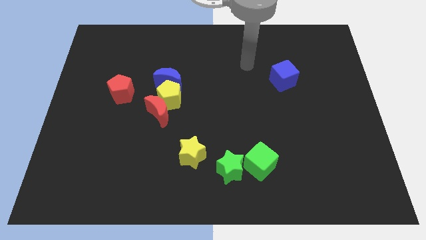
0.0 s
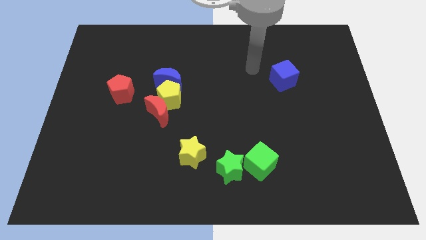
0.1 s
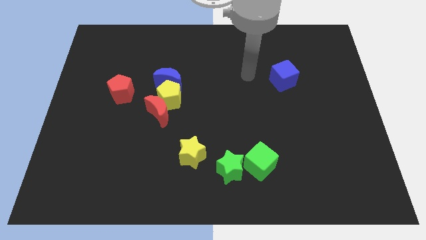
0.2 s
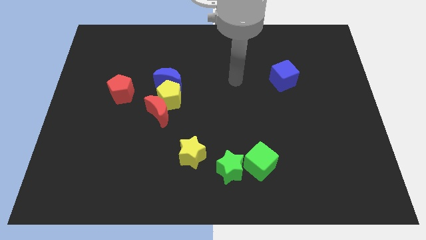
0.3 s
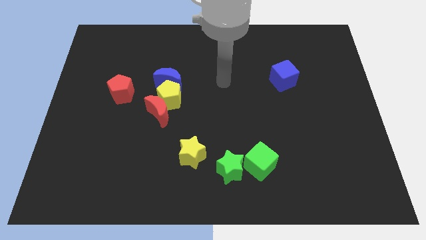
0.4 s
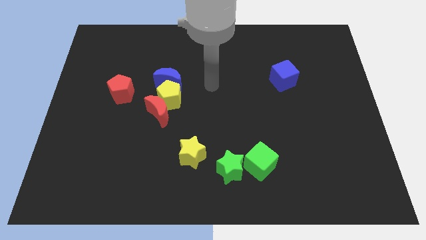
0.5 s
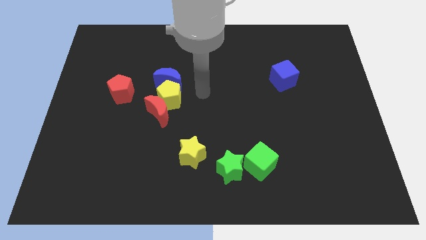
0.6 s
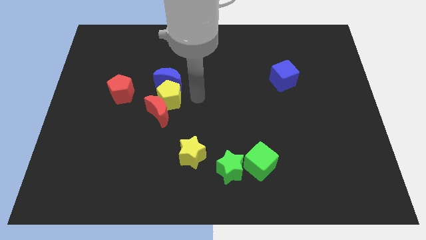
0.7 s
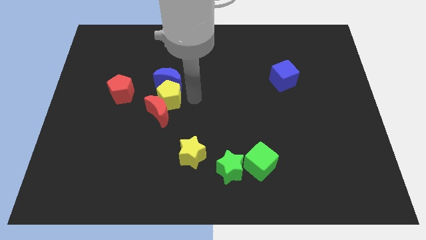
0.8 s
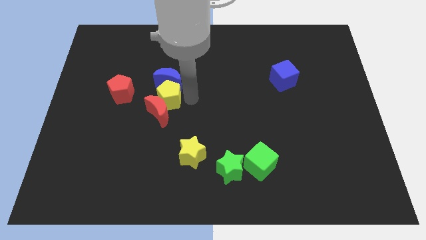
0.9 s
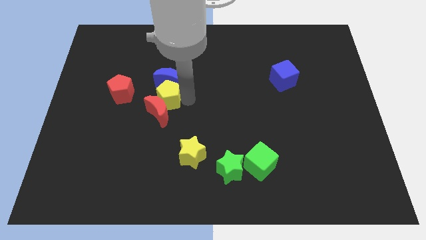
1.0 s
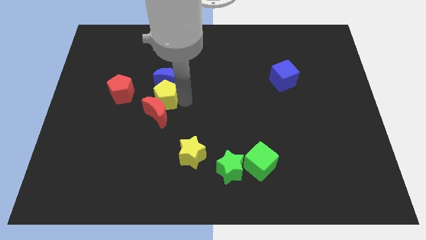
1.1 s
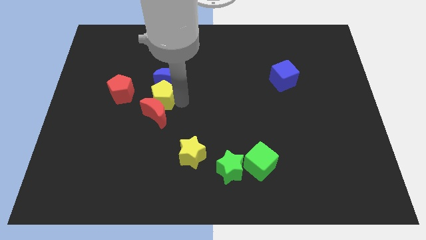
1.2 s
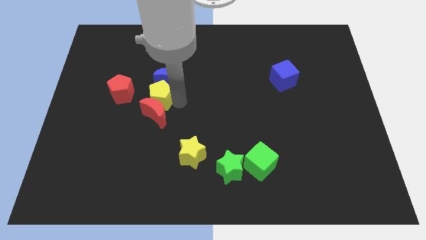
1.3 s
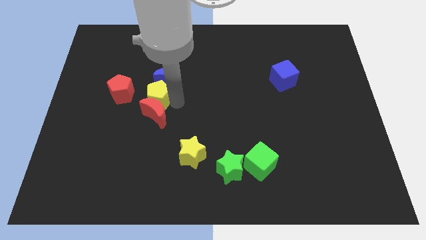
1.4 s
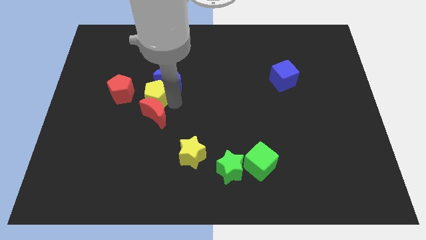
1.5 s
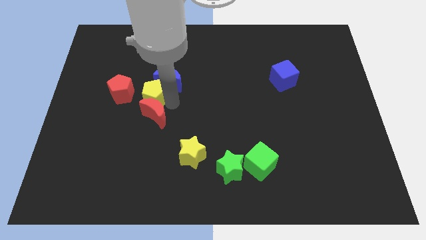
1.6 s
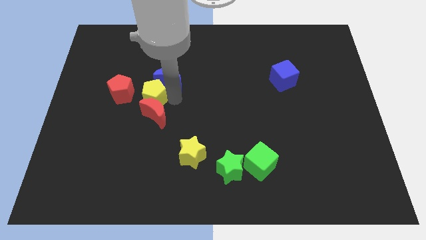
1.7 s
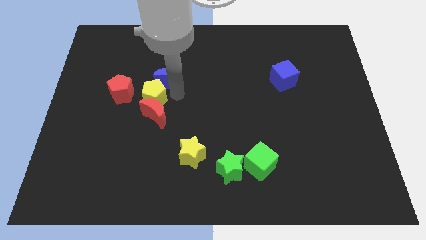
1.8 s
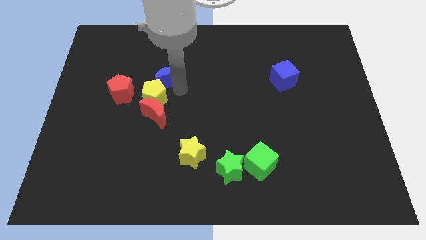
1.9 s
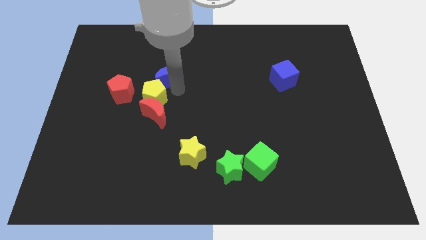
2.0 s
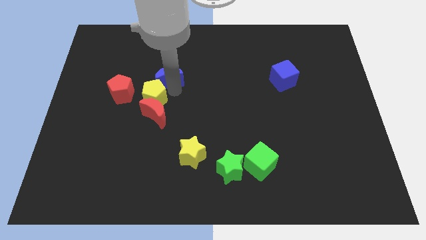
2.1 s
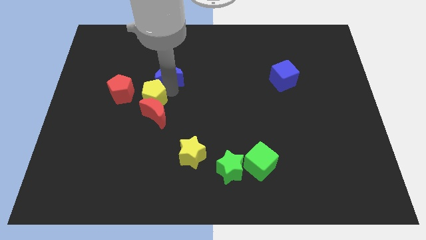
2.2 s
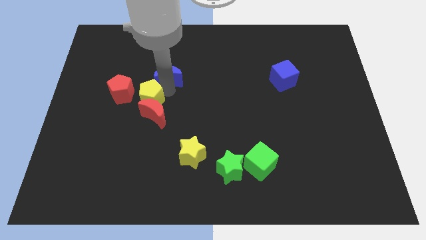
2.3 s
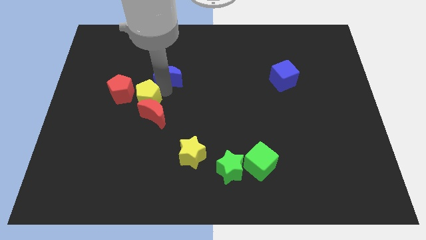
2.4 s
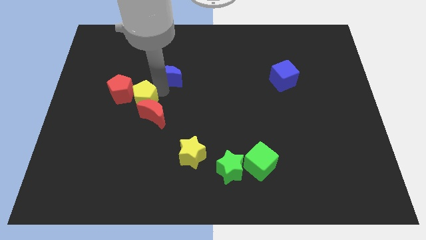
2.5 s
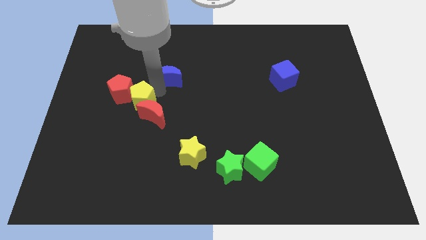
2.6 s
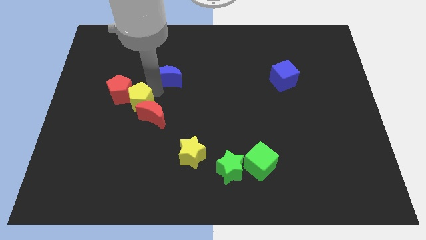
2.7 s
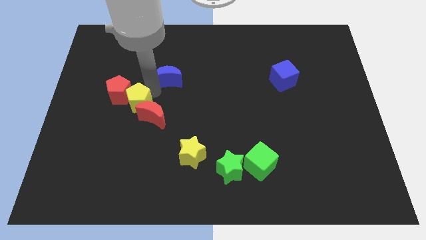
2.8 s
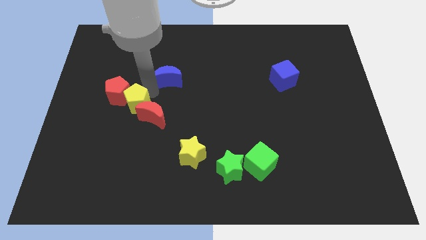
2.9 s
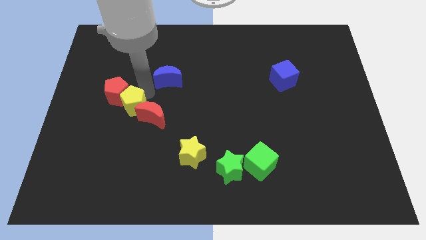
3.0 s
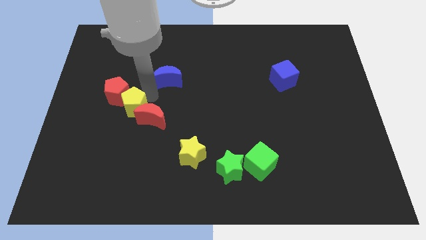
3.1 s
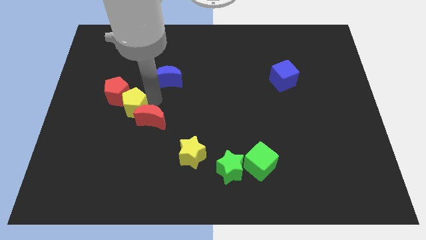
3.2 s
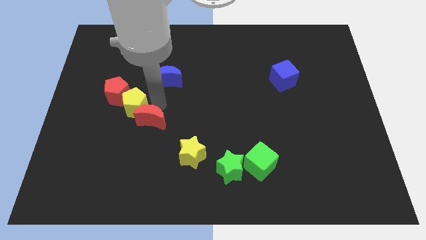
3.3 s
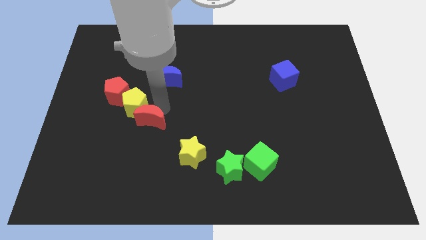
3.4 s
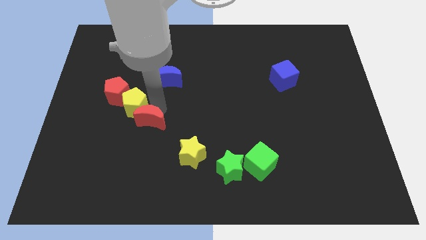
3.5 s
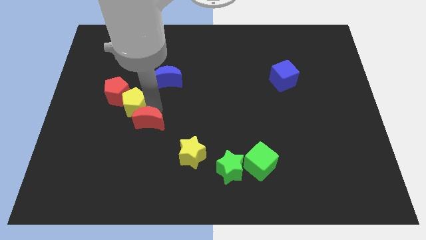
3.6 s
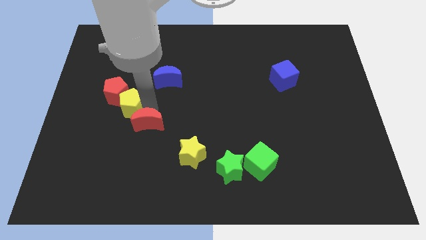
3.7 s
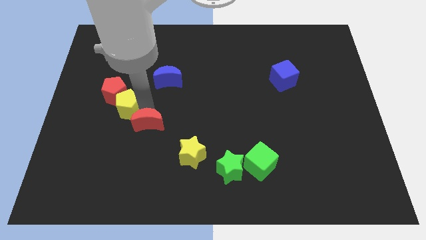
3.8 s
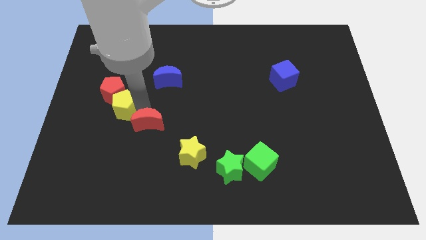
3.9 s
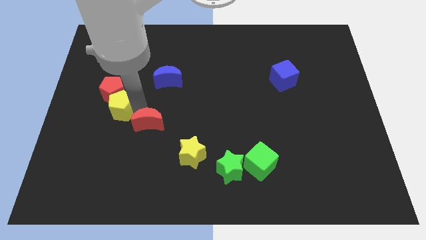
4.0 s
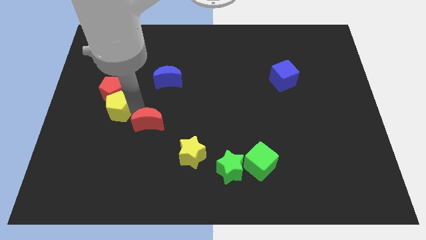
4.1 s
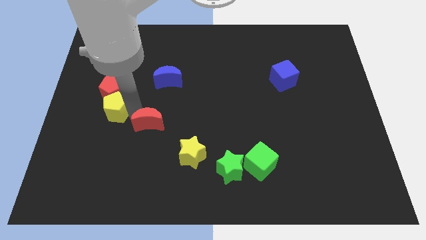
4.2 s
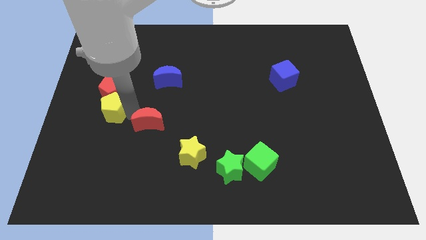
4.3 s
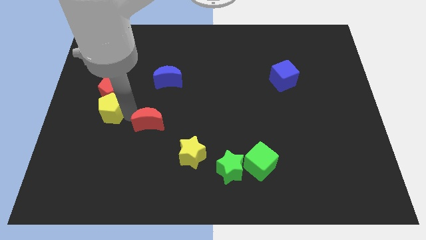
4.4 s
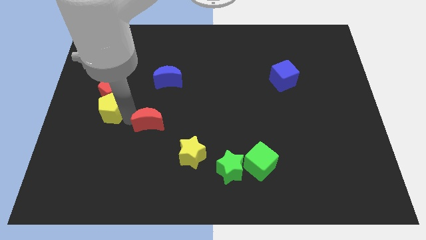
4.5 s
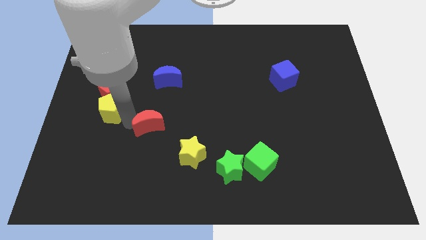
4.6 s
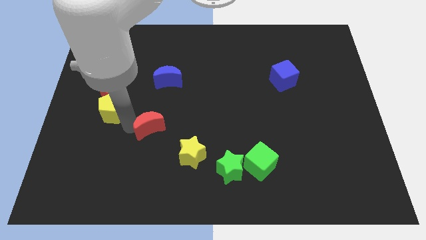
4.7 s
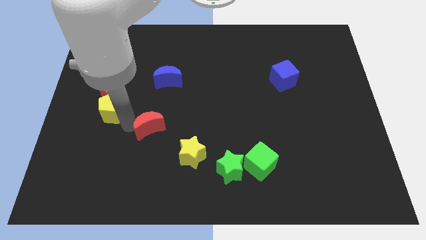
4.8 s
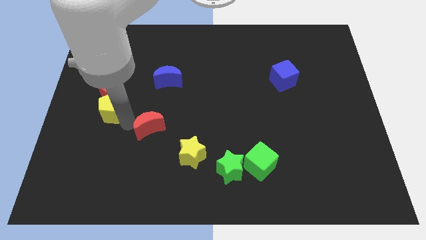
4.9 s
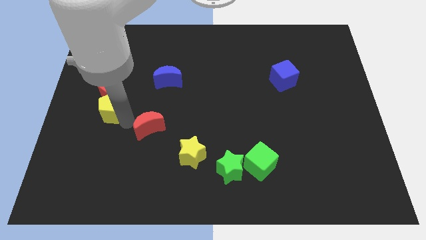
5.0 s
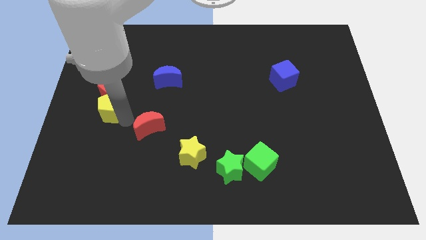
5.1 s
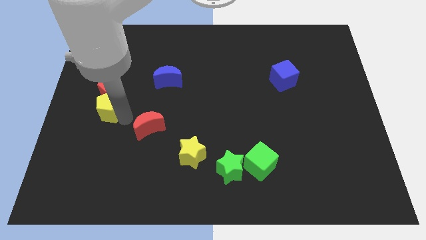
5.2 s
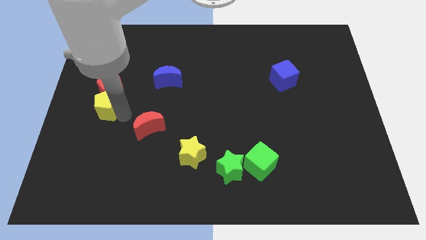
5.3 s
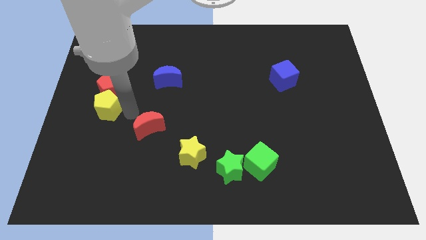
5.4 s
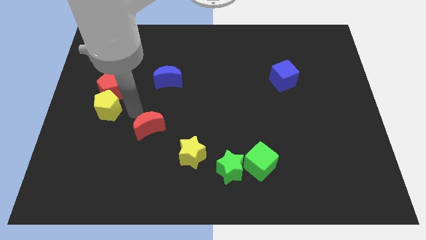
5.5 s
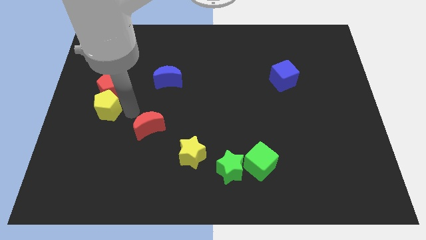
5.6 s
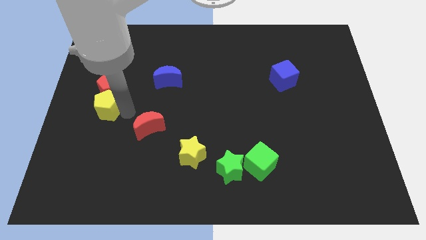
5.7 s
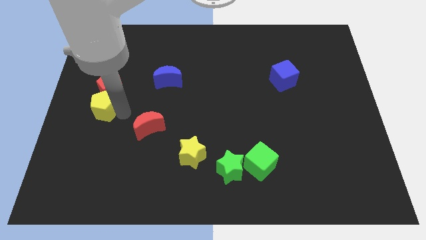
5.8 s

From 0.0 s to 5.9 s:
put the yellow pentagon to the left side
